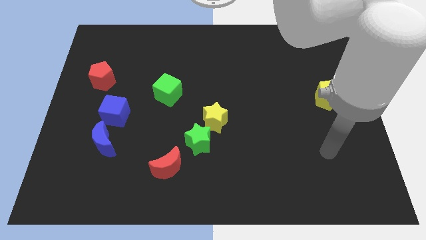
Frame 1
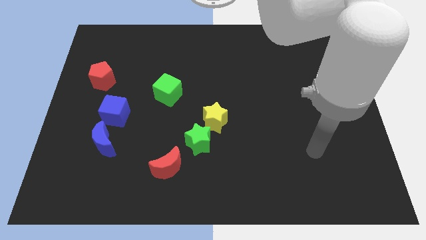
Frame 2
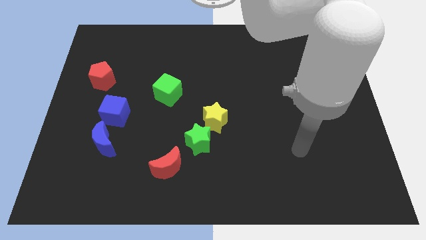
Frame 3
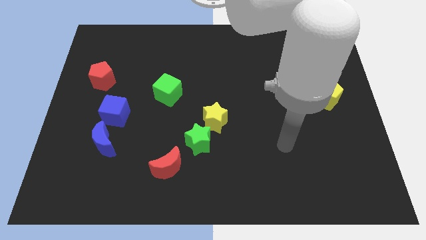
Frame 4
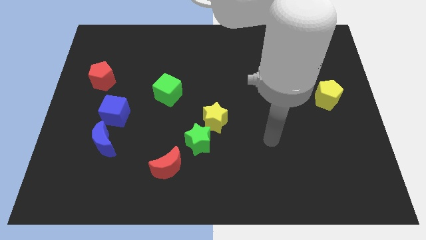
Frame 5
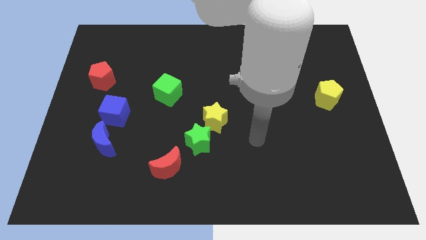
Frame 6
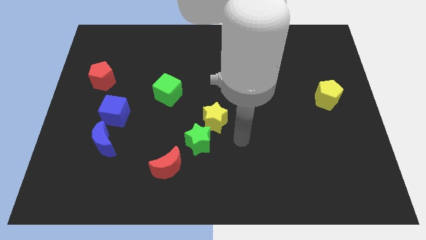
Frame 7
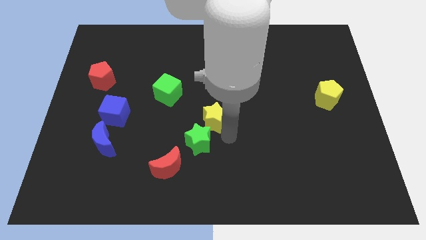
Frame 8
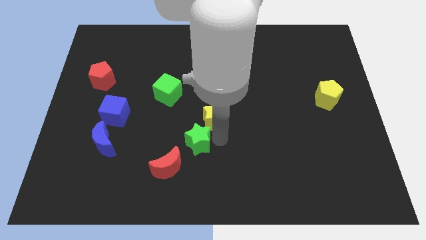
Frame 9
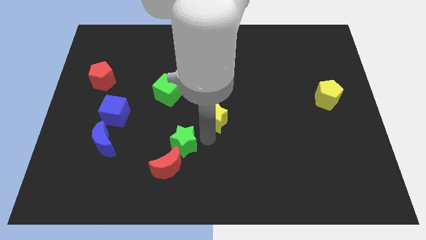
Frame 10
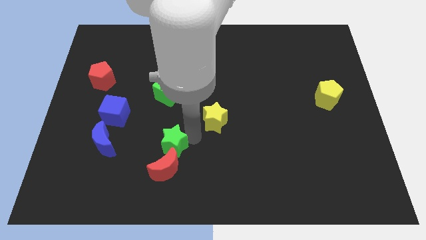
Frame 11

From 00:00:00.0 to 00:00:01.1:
move the yellow star away from the green star

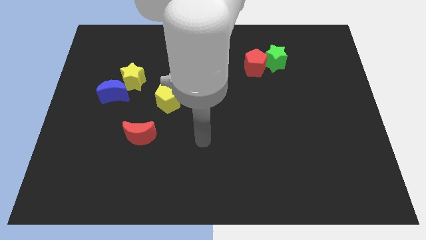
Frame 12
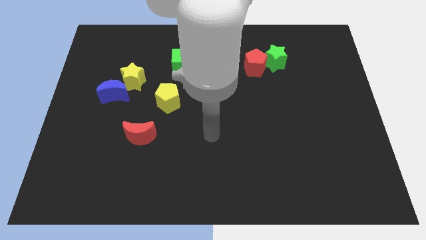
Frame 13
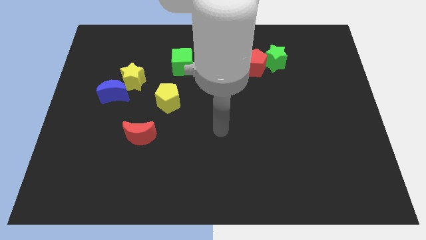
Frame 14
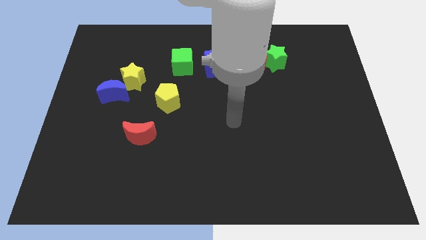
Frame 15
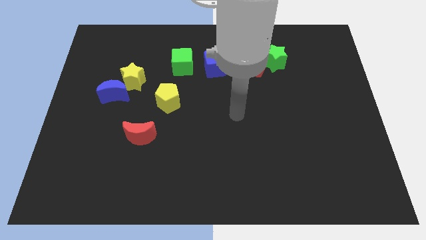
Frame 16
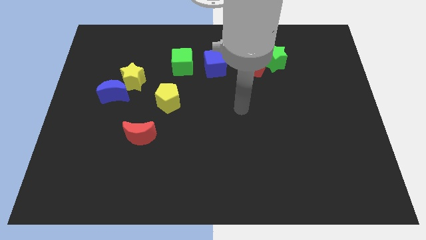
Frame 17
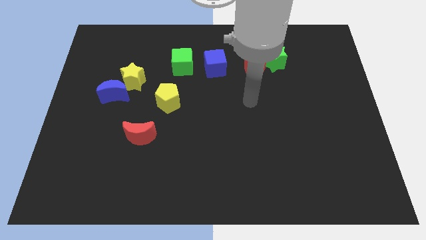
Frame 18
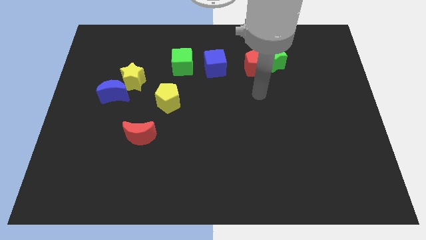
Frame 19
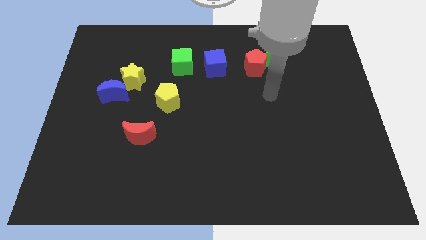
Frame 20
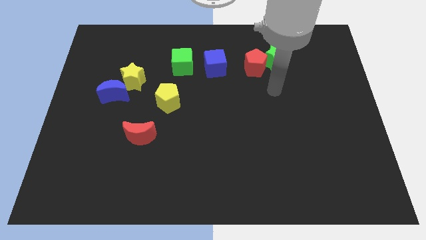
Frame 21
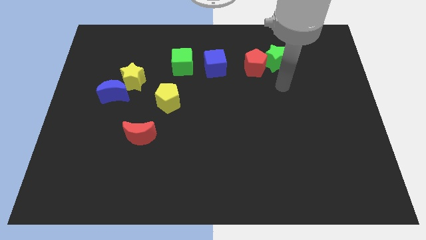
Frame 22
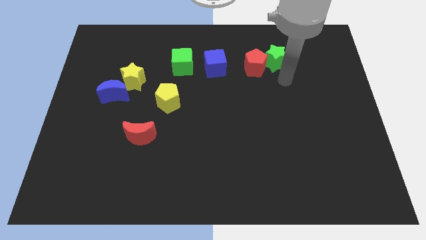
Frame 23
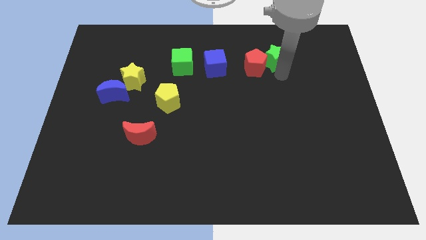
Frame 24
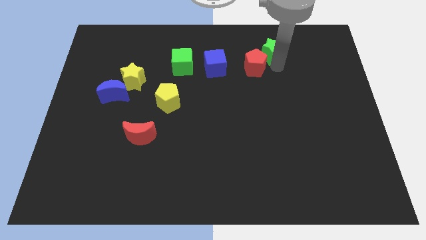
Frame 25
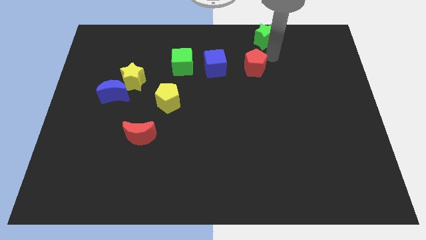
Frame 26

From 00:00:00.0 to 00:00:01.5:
move the red pentagon away from the green star

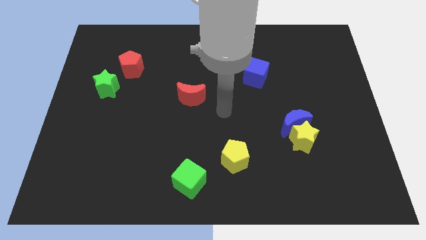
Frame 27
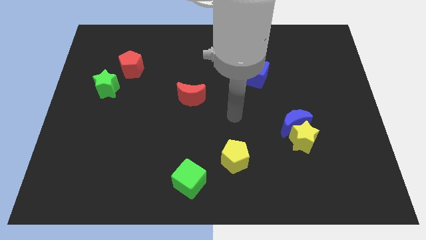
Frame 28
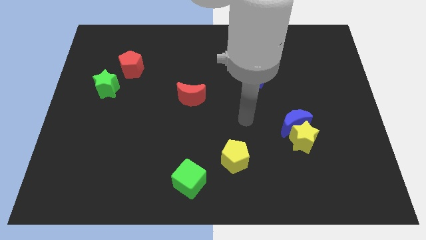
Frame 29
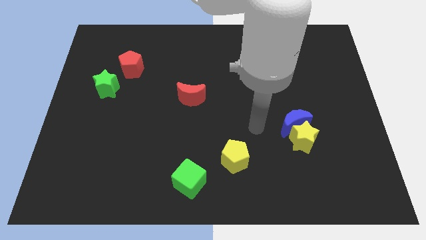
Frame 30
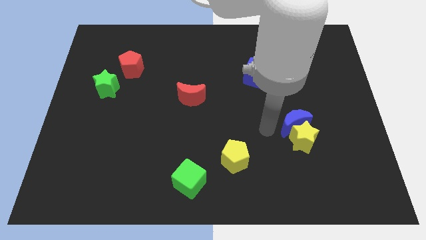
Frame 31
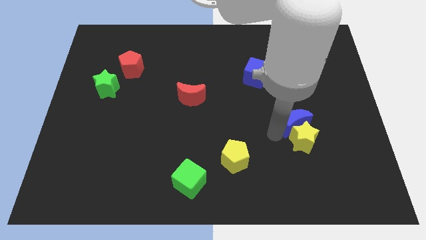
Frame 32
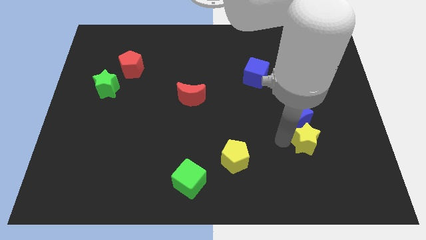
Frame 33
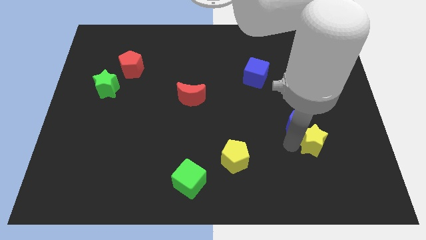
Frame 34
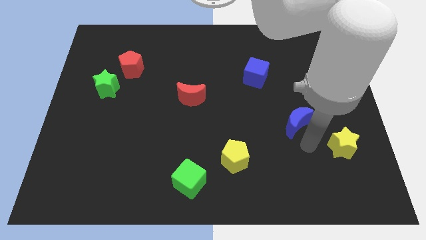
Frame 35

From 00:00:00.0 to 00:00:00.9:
separate the blue moon from the yellow star

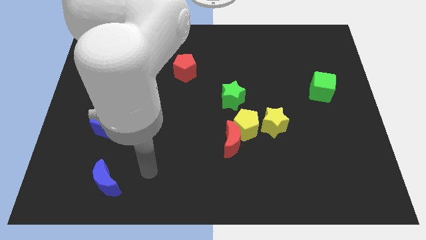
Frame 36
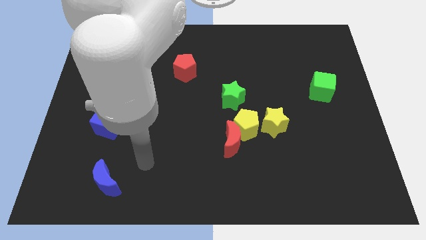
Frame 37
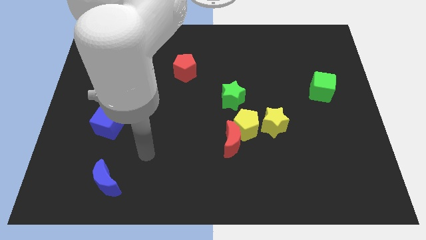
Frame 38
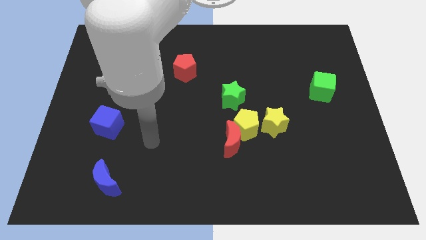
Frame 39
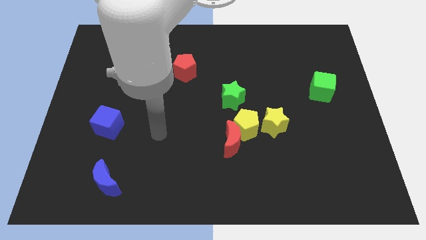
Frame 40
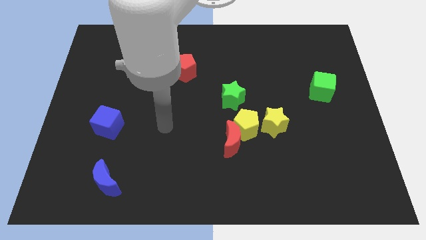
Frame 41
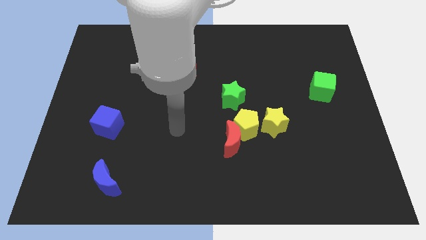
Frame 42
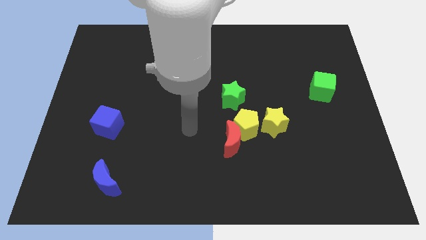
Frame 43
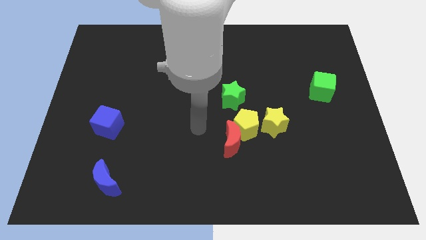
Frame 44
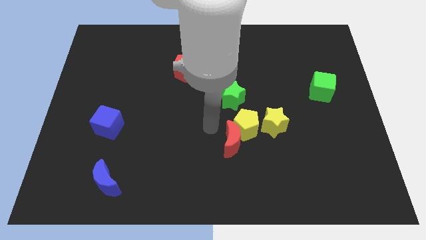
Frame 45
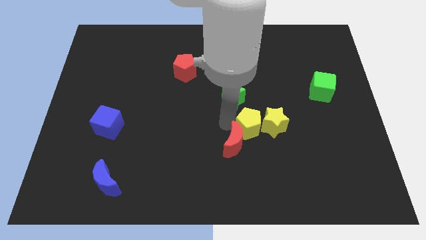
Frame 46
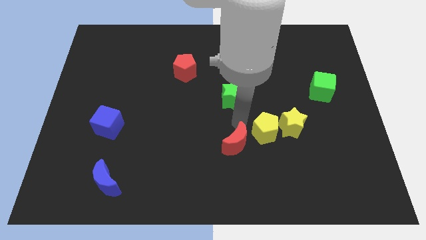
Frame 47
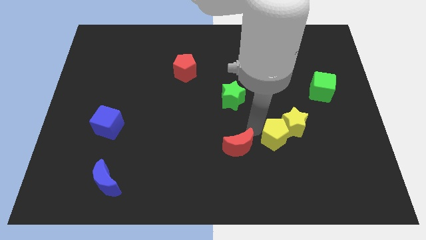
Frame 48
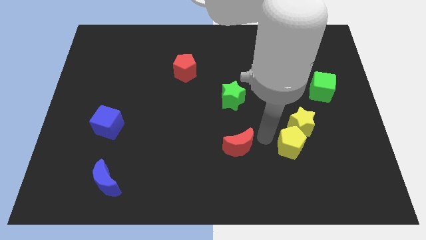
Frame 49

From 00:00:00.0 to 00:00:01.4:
separate the red moon from the yellow pentagon

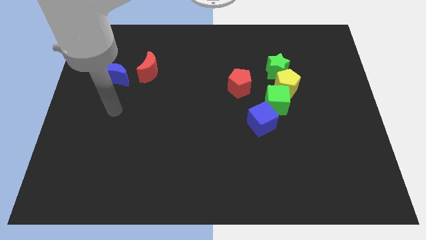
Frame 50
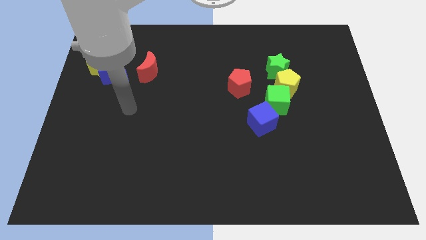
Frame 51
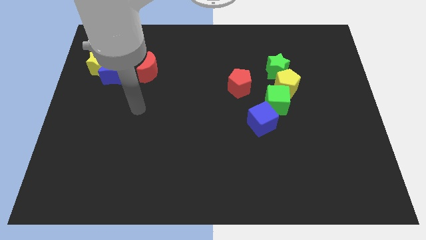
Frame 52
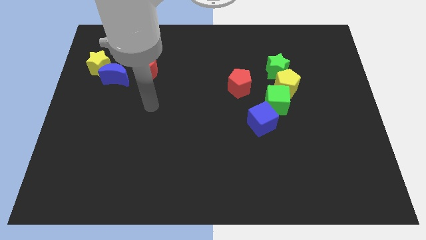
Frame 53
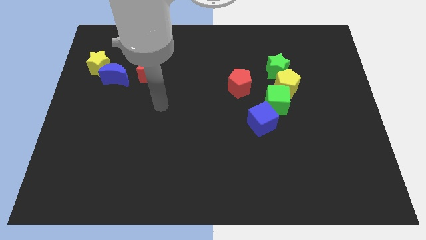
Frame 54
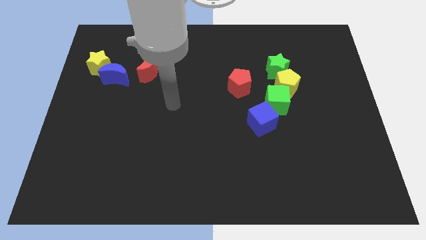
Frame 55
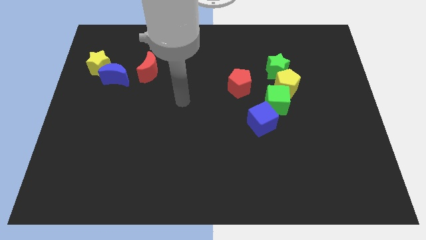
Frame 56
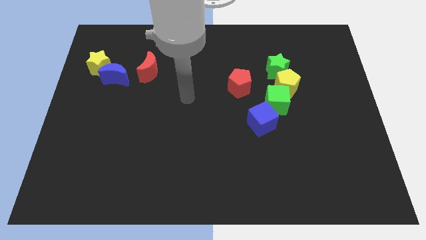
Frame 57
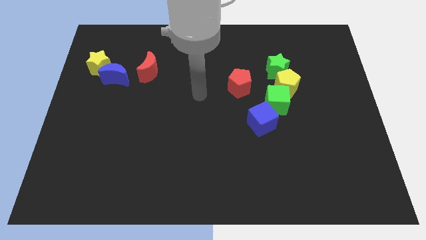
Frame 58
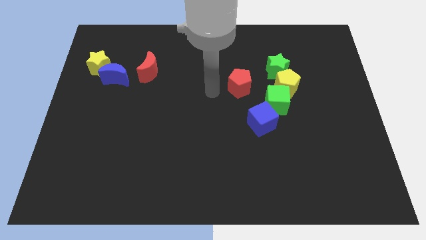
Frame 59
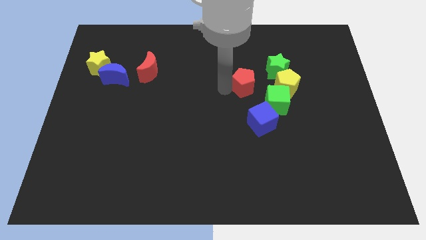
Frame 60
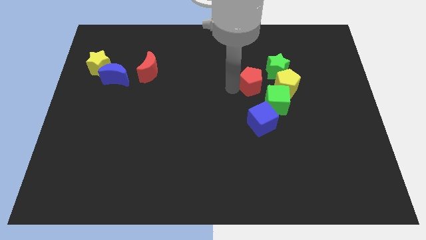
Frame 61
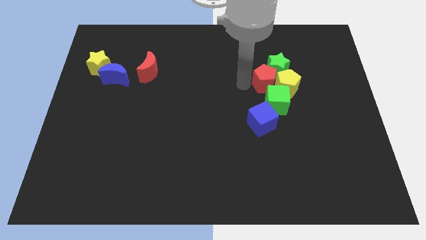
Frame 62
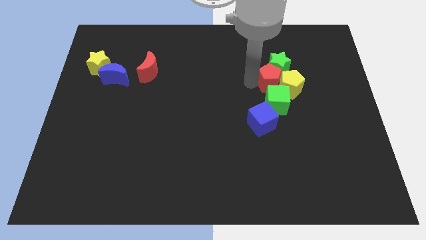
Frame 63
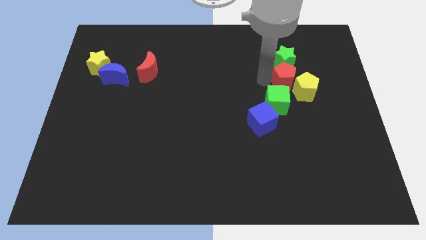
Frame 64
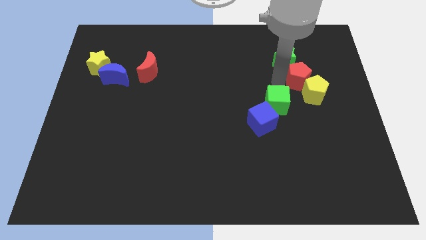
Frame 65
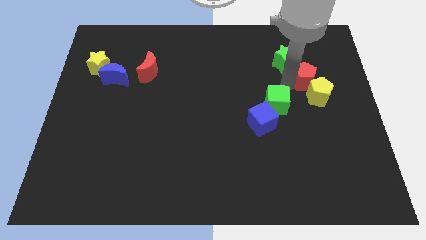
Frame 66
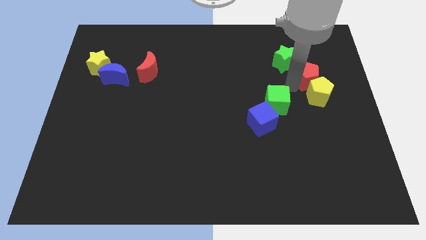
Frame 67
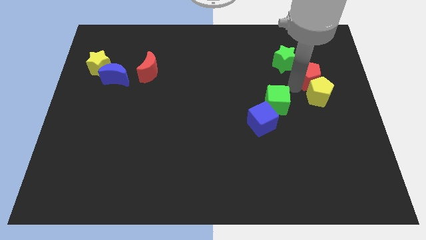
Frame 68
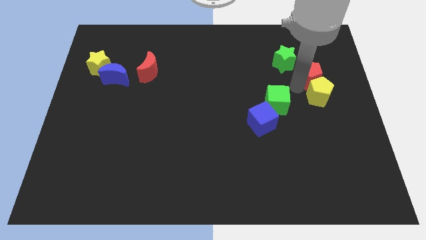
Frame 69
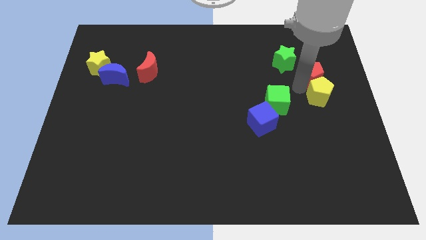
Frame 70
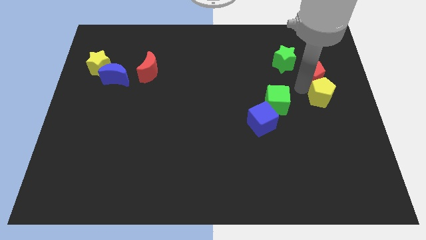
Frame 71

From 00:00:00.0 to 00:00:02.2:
move the yellow pentagon away from the green cube and green star

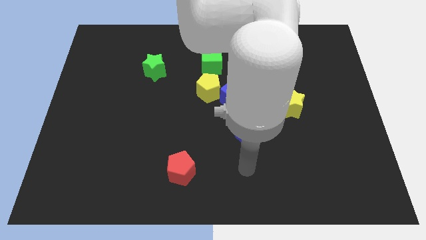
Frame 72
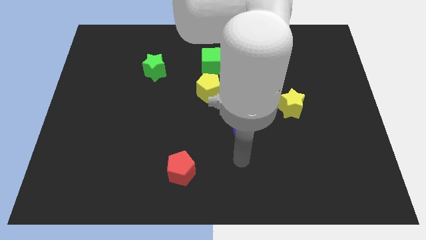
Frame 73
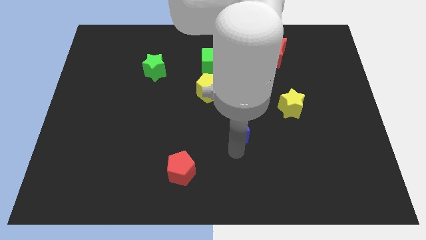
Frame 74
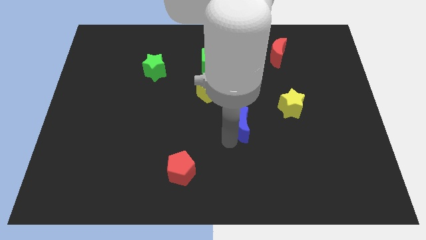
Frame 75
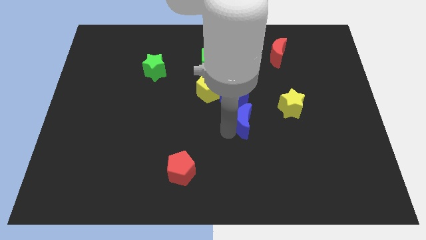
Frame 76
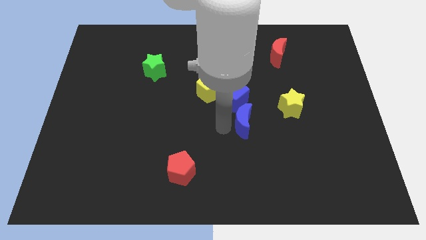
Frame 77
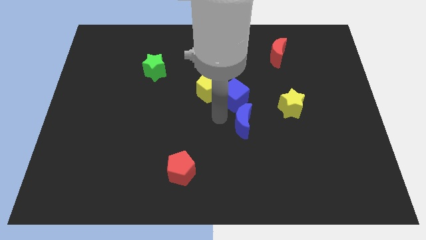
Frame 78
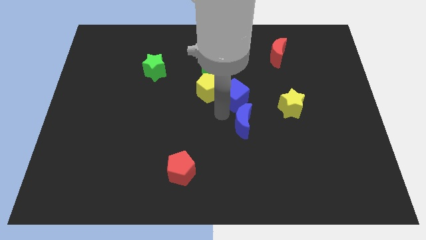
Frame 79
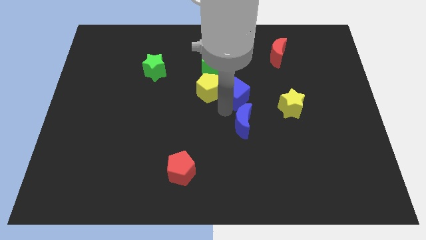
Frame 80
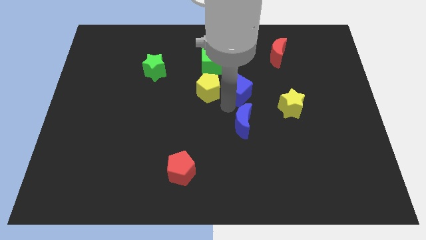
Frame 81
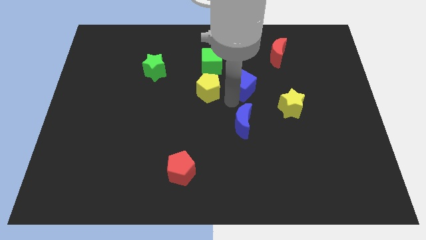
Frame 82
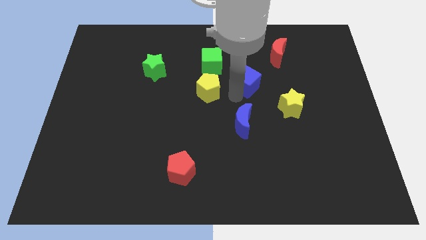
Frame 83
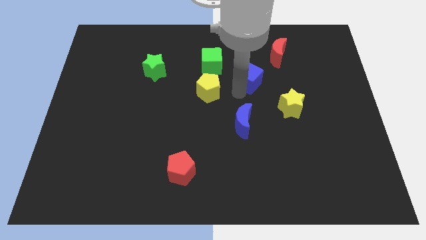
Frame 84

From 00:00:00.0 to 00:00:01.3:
separate the blue cube from the yellow pentagon and blue moon

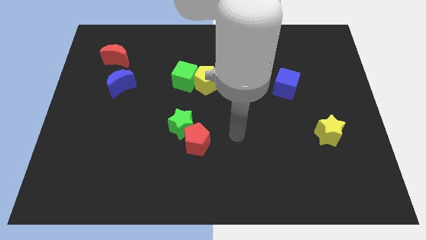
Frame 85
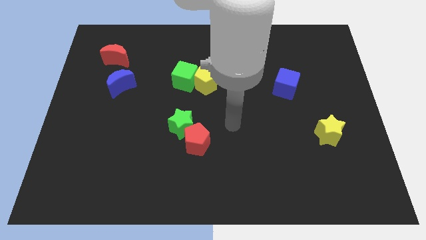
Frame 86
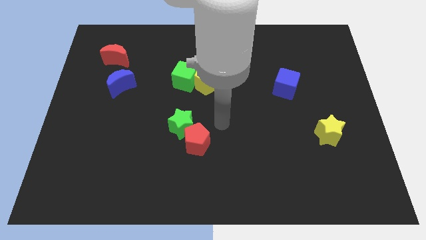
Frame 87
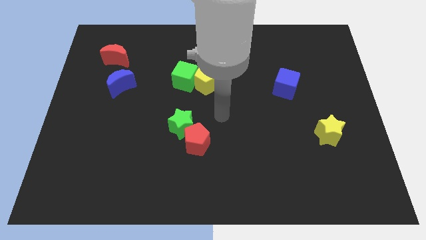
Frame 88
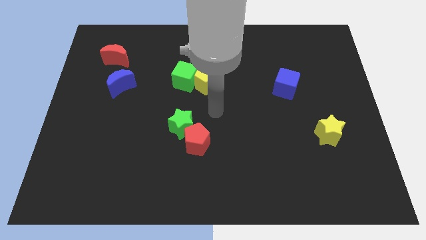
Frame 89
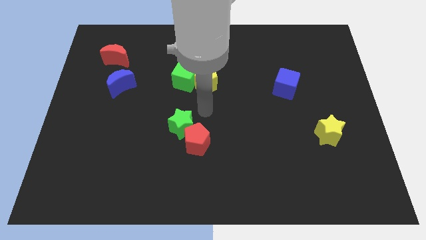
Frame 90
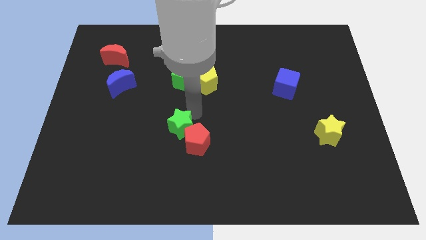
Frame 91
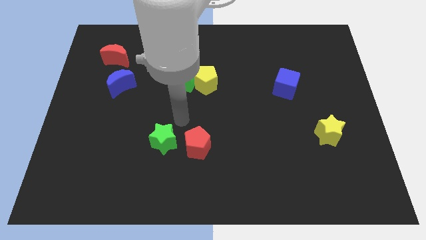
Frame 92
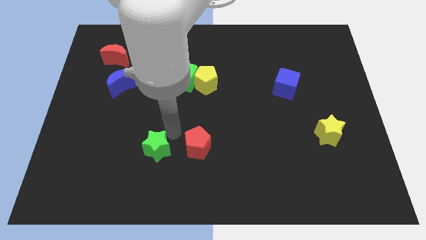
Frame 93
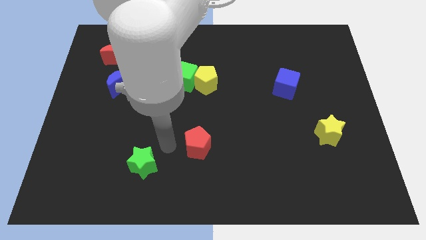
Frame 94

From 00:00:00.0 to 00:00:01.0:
pull the red pentagon apart from the green star
